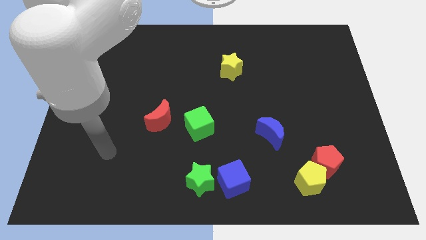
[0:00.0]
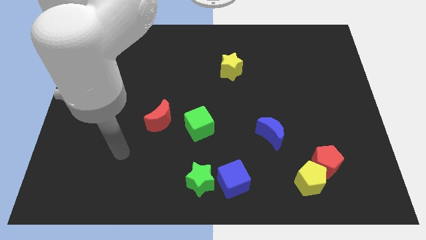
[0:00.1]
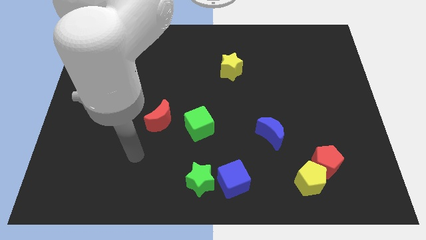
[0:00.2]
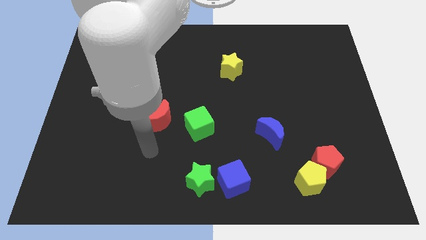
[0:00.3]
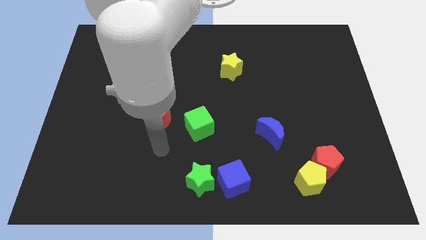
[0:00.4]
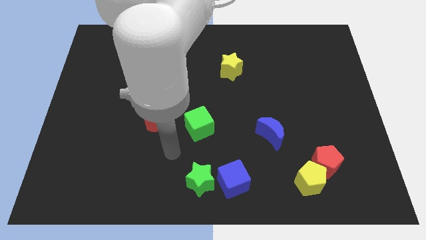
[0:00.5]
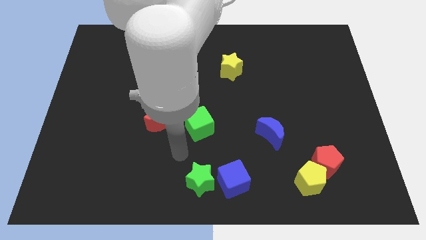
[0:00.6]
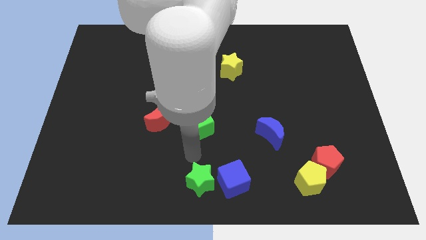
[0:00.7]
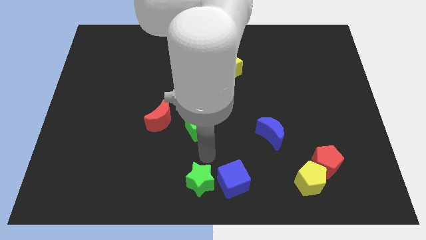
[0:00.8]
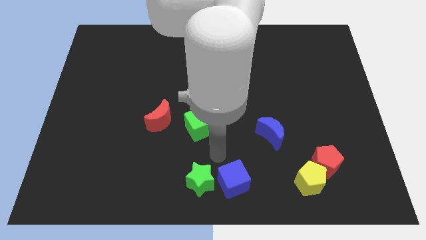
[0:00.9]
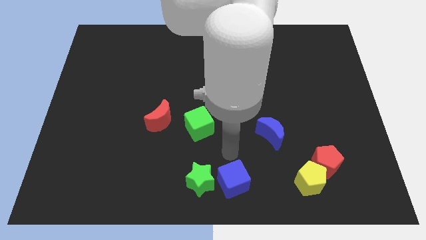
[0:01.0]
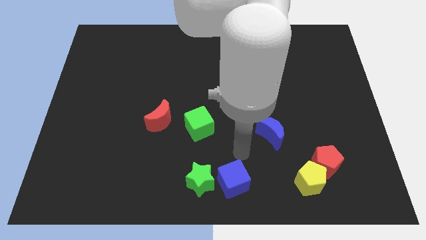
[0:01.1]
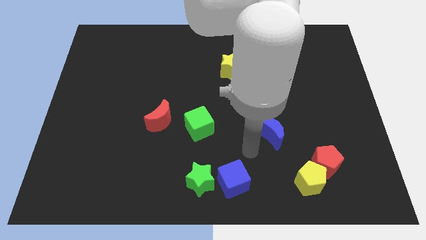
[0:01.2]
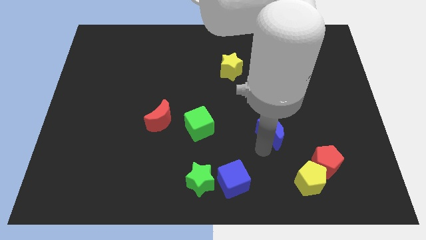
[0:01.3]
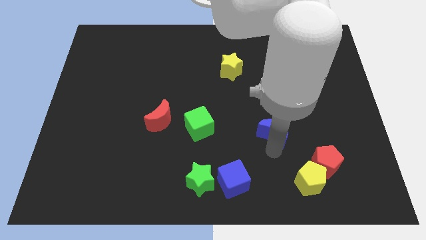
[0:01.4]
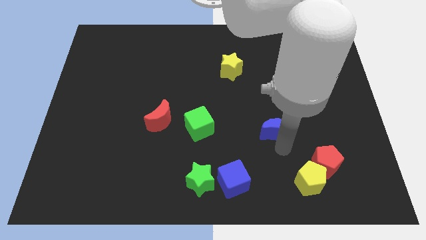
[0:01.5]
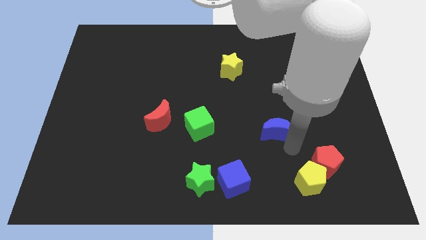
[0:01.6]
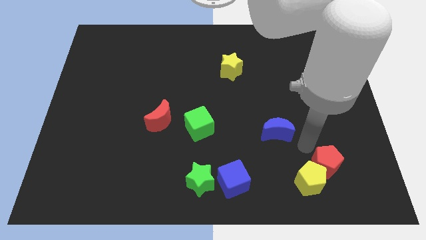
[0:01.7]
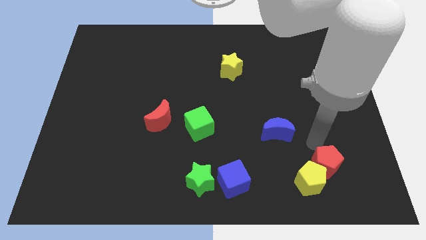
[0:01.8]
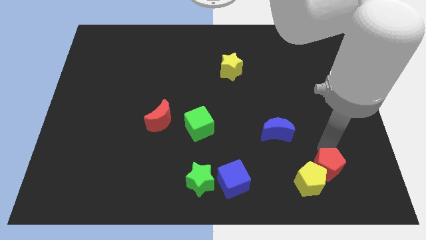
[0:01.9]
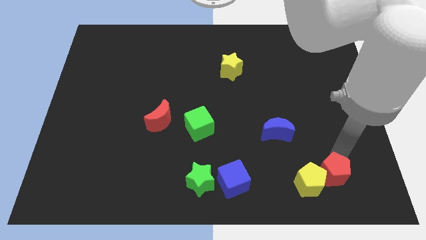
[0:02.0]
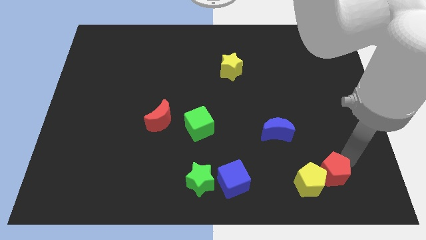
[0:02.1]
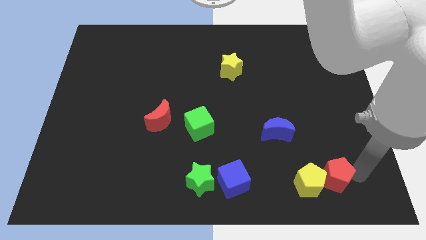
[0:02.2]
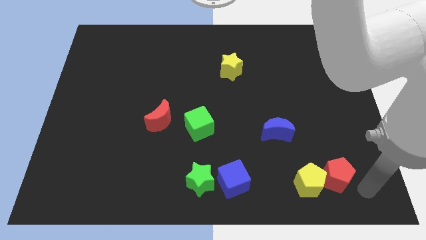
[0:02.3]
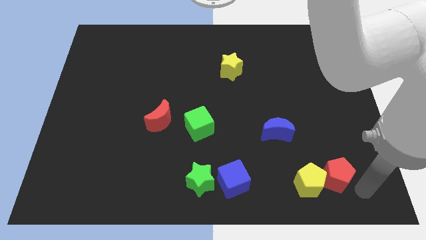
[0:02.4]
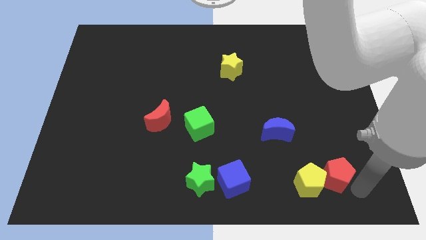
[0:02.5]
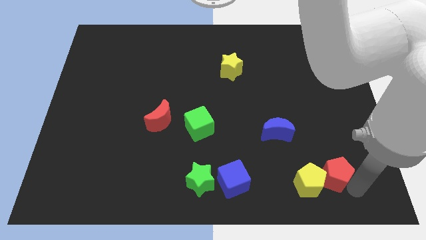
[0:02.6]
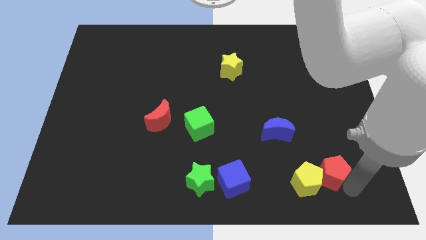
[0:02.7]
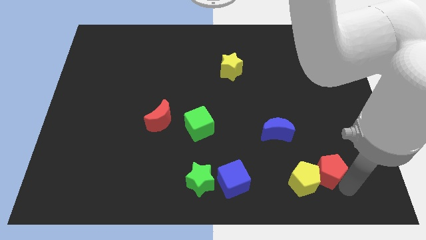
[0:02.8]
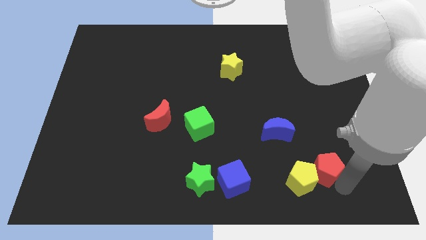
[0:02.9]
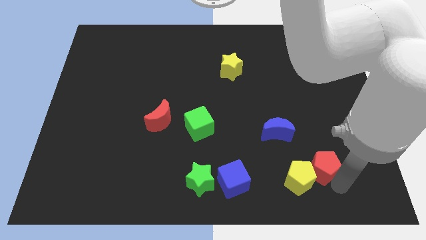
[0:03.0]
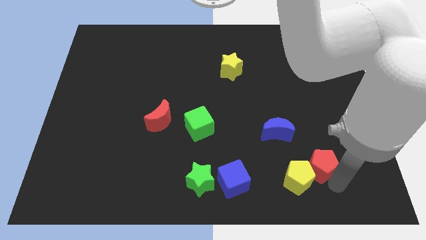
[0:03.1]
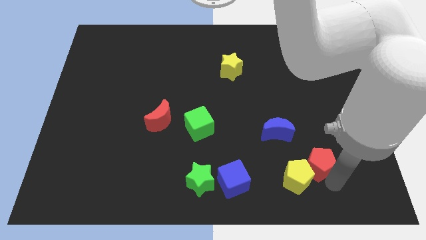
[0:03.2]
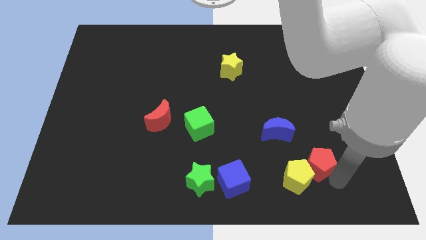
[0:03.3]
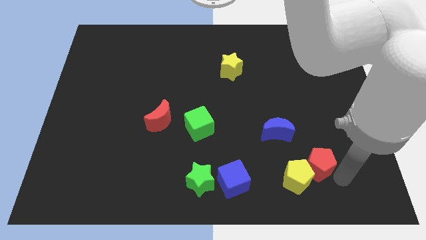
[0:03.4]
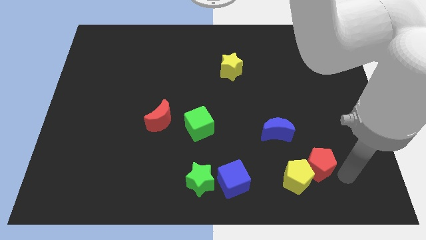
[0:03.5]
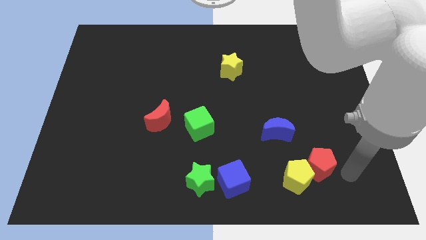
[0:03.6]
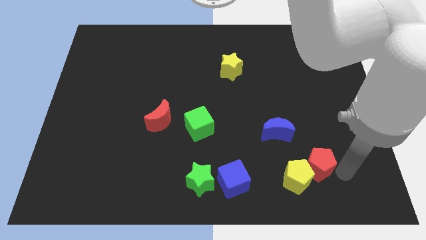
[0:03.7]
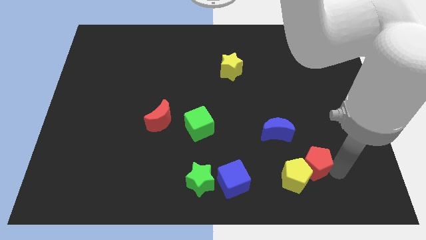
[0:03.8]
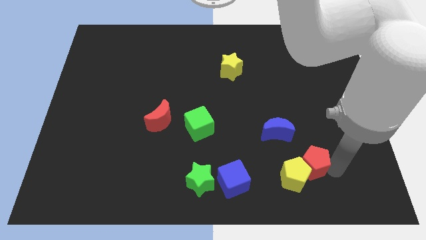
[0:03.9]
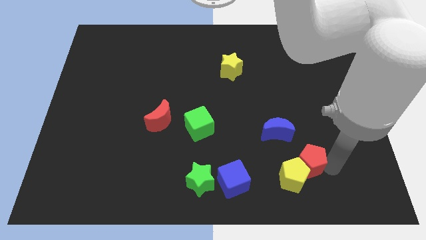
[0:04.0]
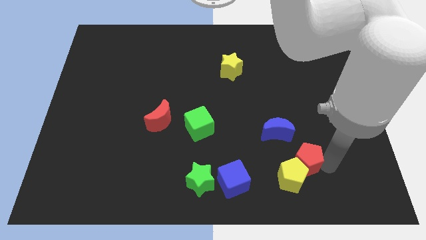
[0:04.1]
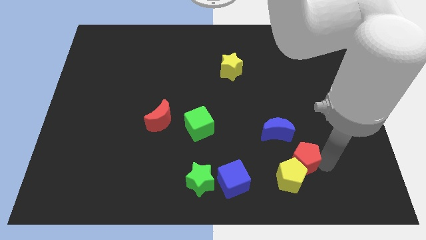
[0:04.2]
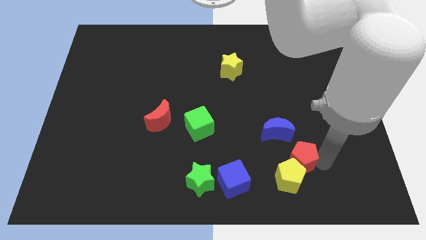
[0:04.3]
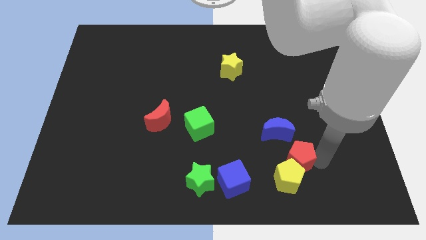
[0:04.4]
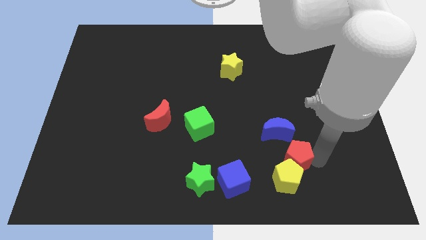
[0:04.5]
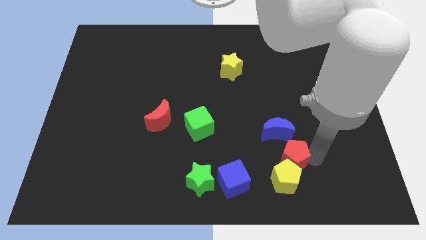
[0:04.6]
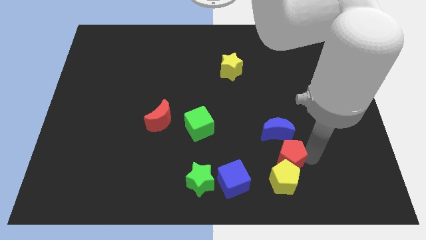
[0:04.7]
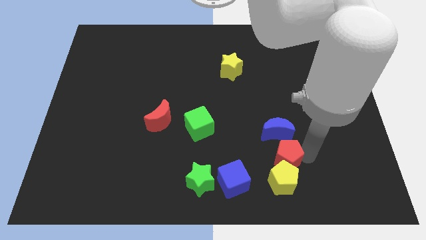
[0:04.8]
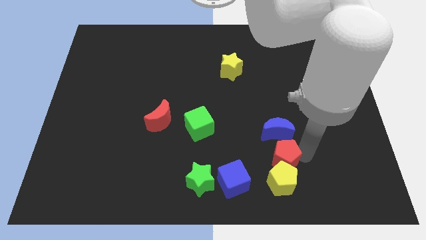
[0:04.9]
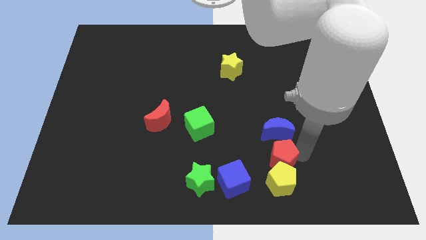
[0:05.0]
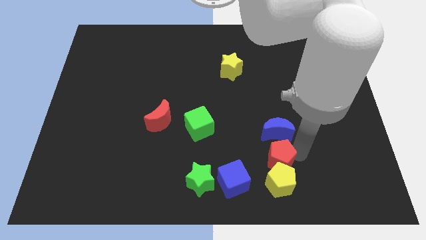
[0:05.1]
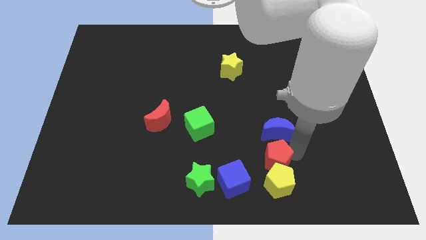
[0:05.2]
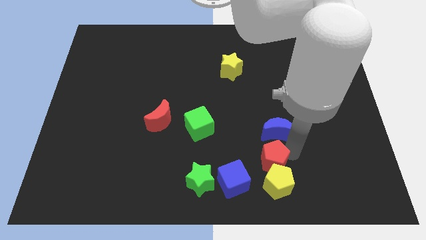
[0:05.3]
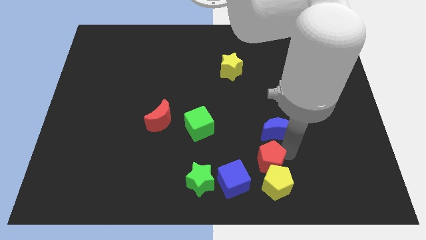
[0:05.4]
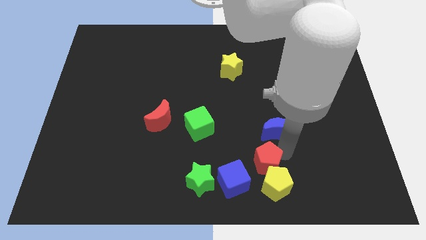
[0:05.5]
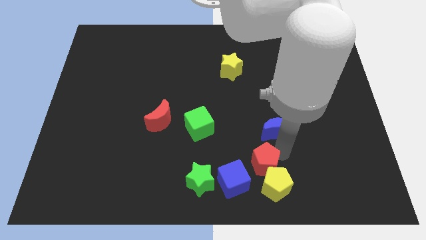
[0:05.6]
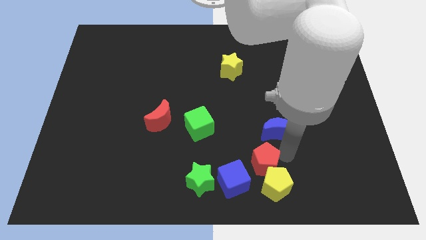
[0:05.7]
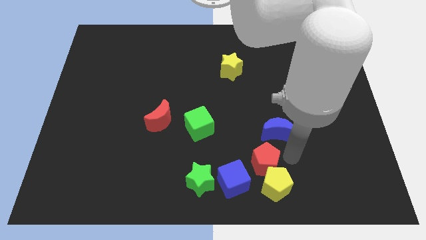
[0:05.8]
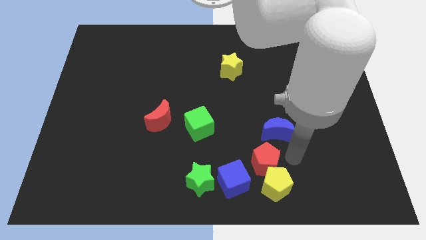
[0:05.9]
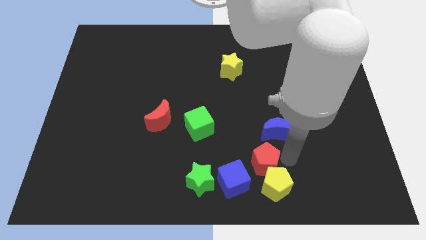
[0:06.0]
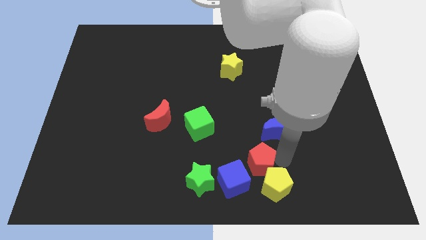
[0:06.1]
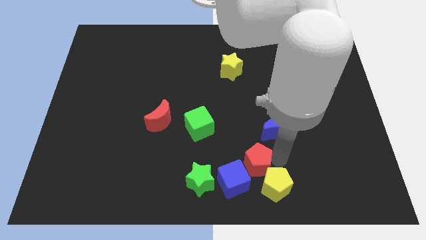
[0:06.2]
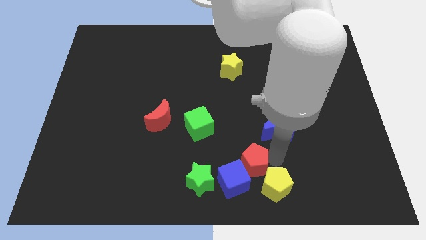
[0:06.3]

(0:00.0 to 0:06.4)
slide the red pentagon to the blue cube
